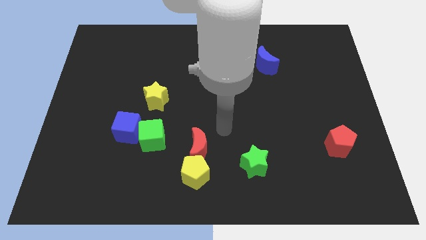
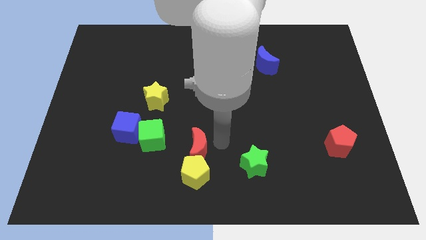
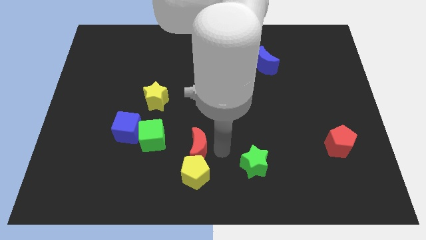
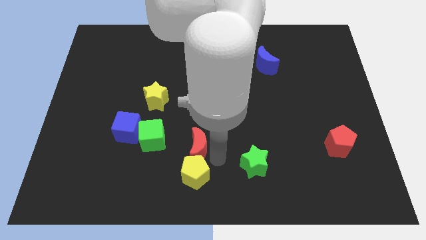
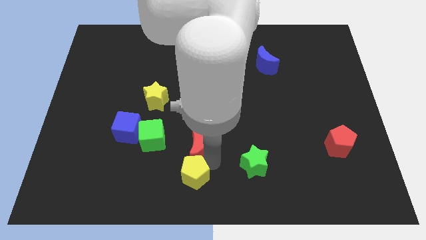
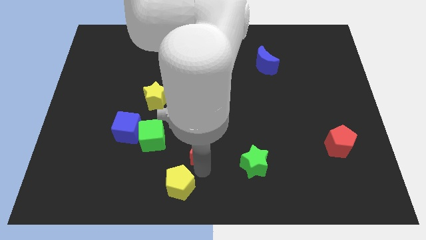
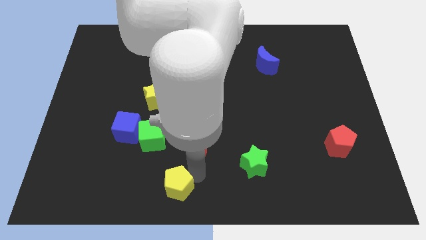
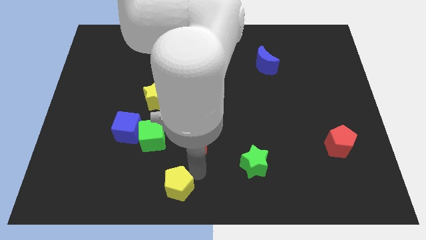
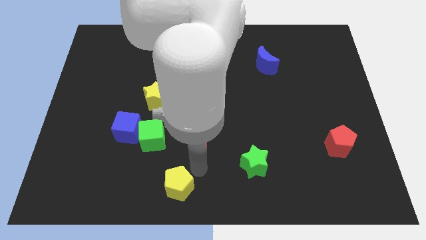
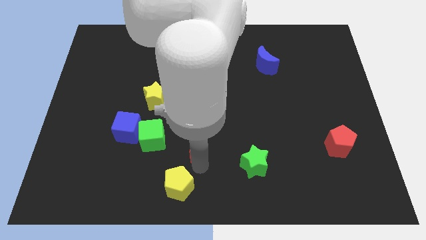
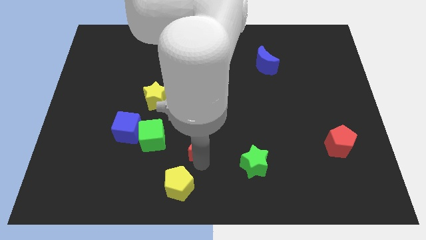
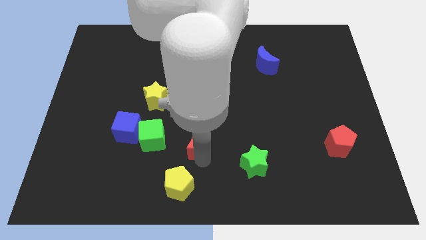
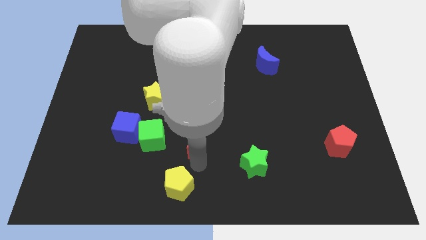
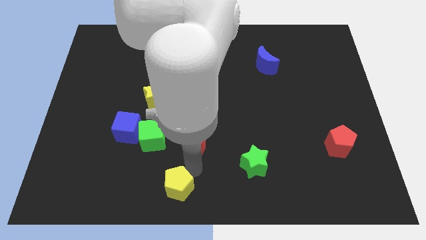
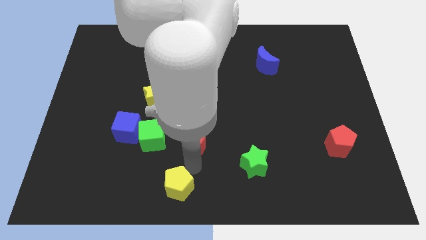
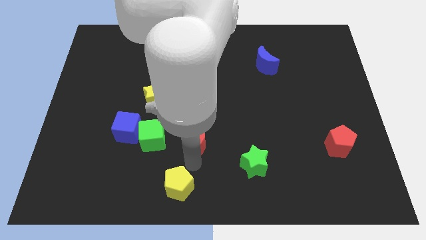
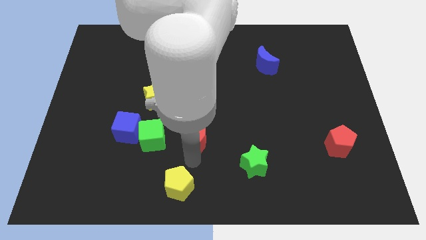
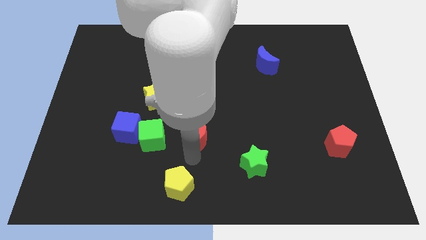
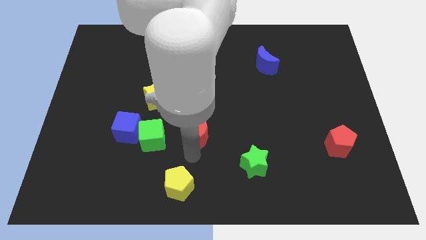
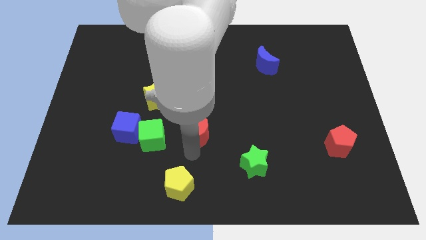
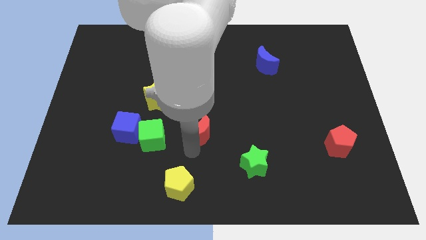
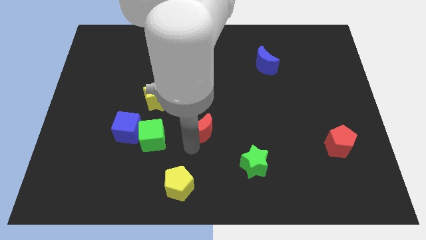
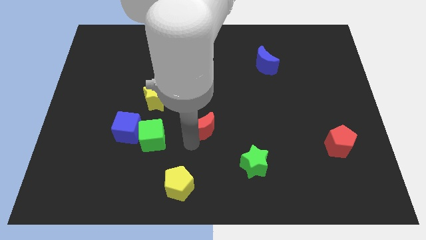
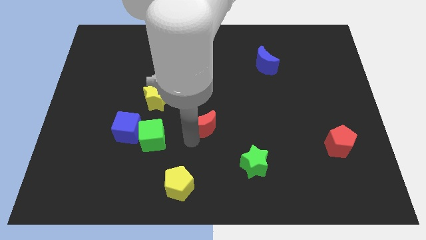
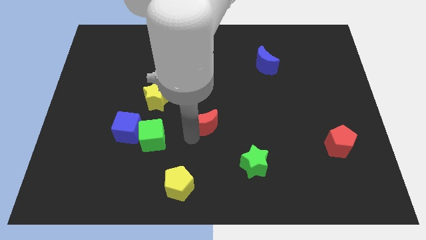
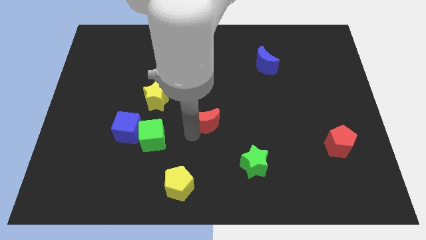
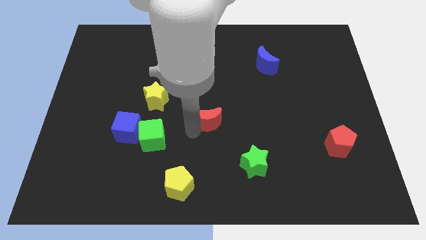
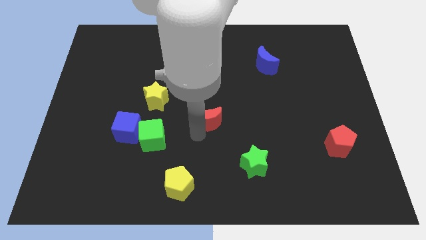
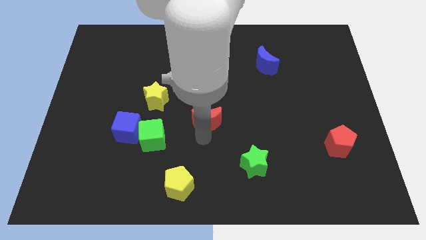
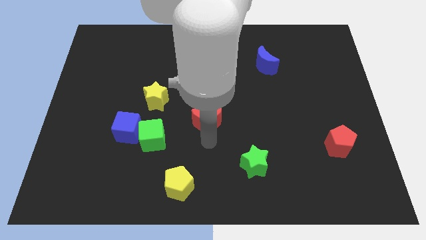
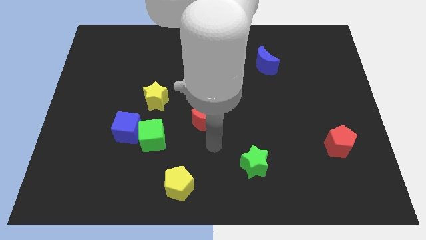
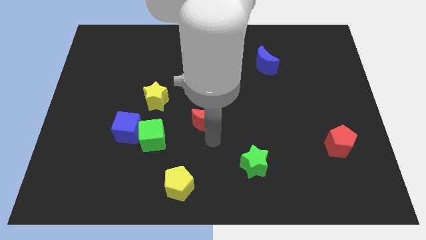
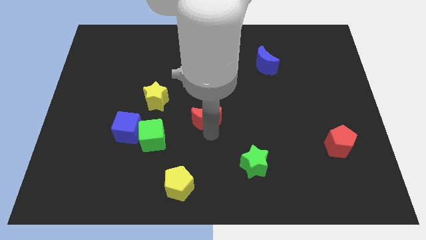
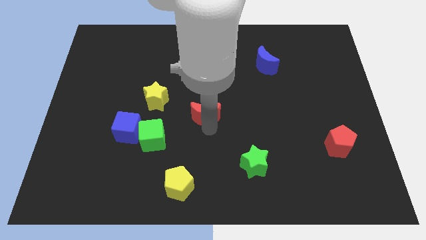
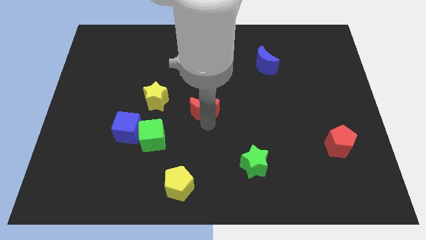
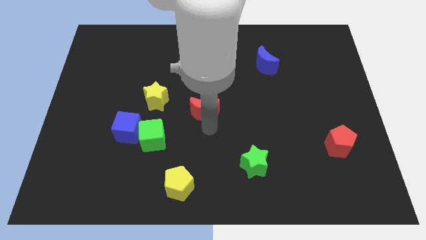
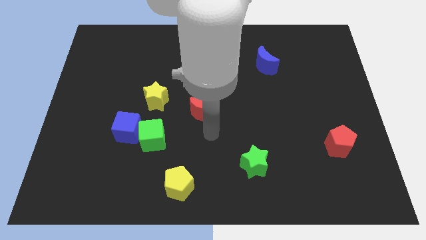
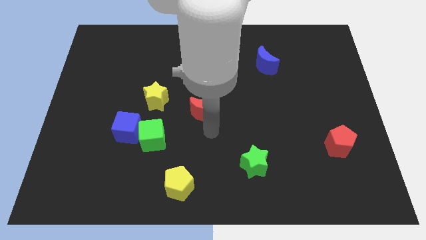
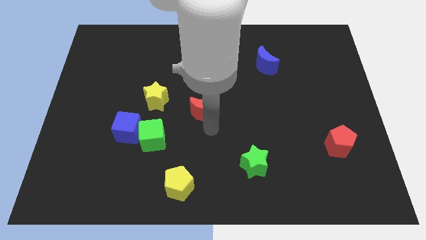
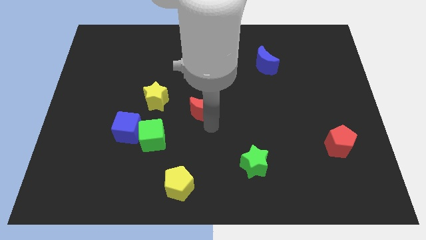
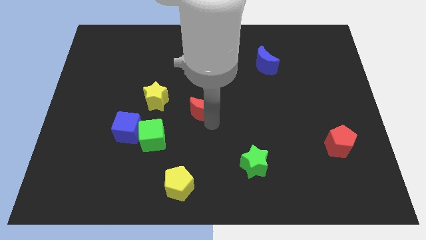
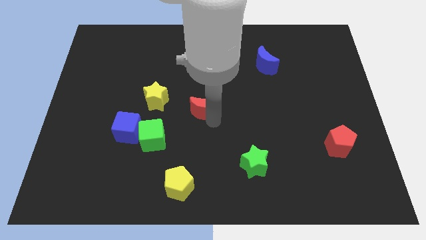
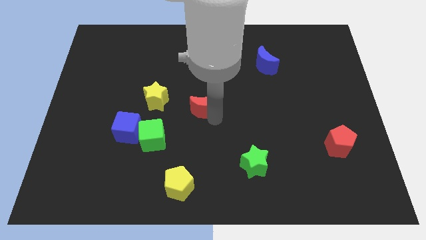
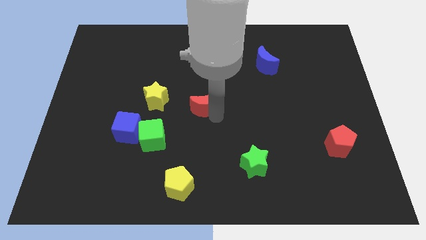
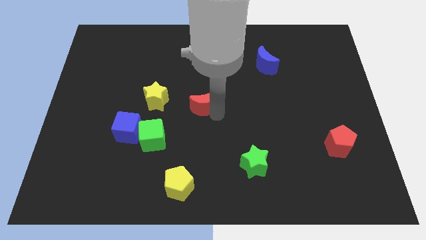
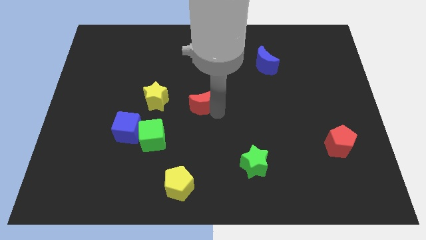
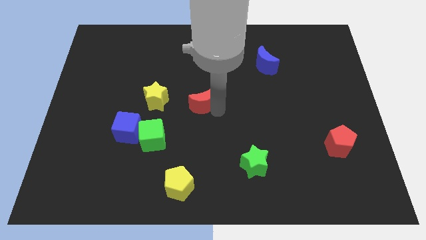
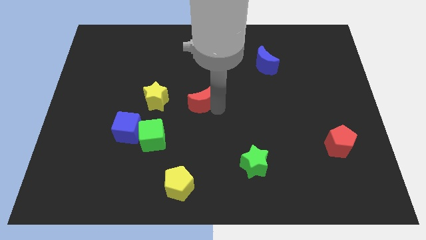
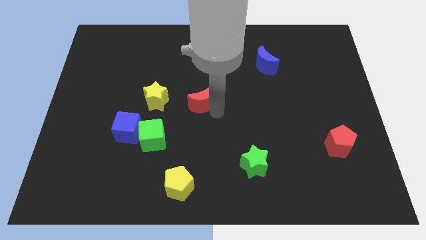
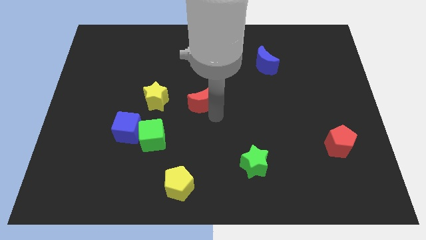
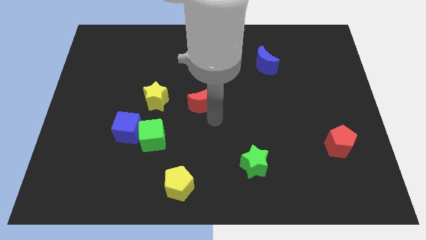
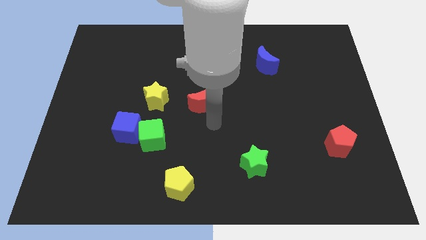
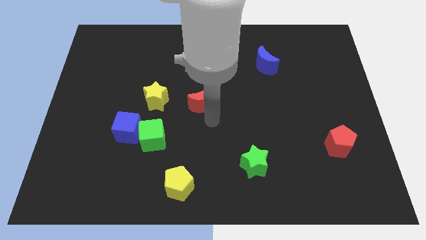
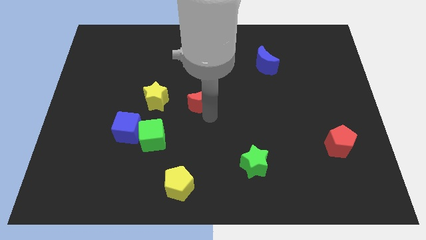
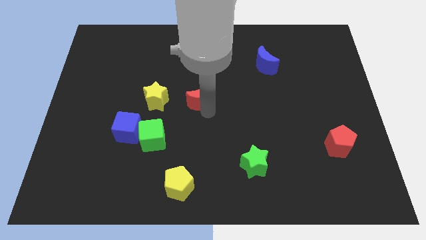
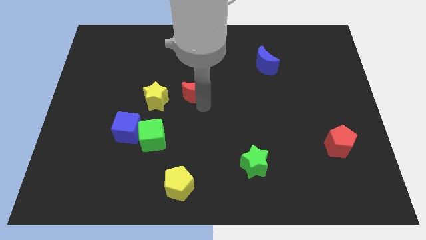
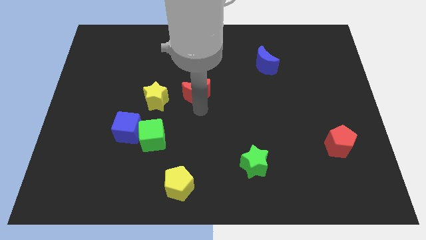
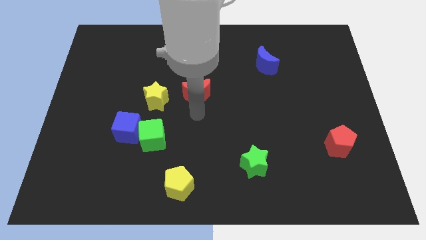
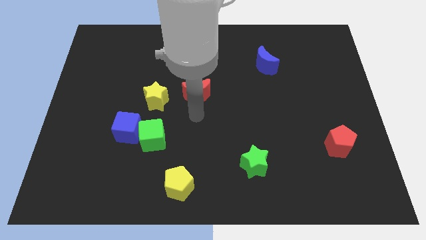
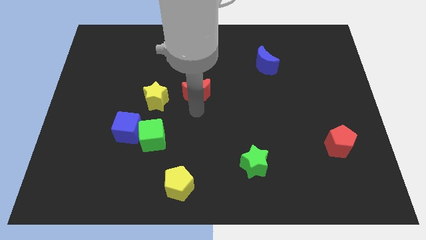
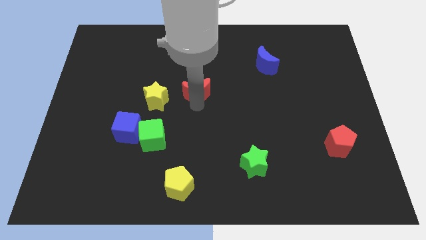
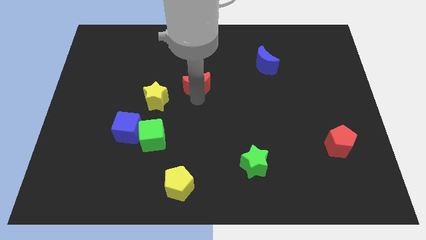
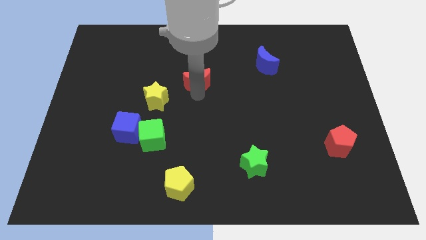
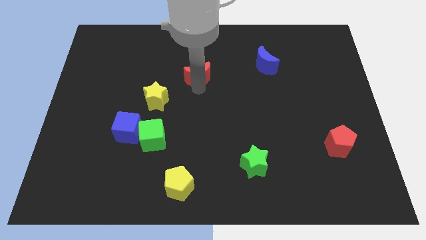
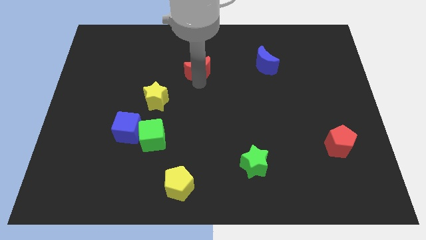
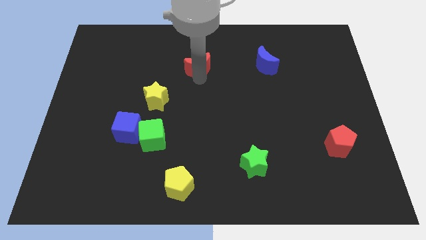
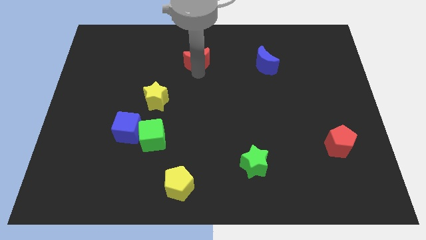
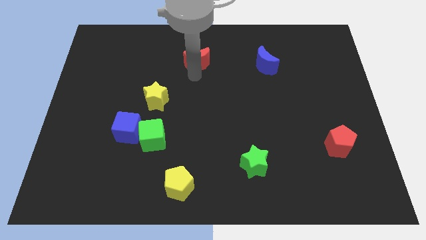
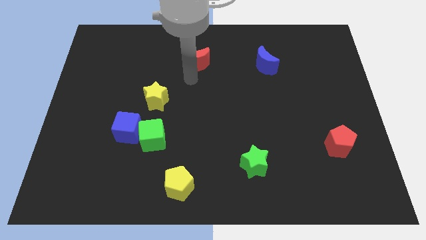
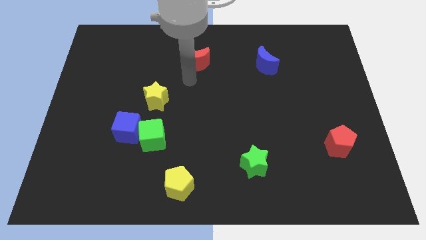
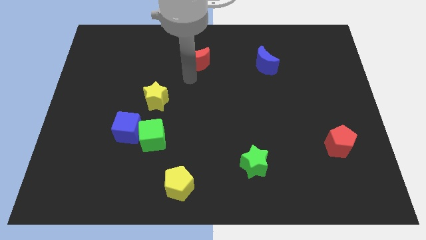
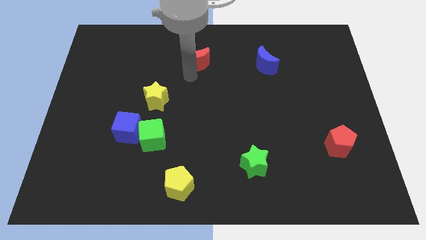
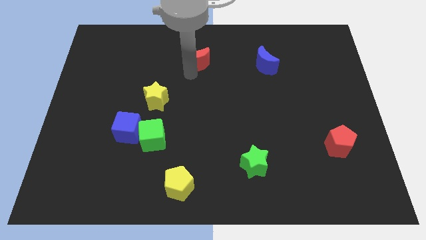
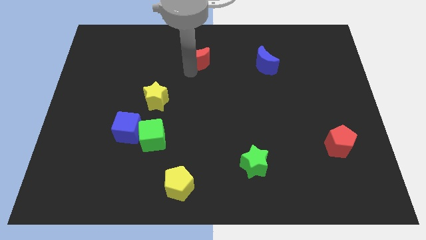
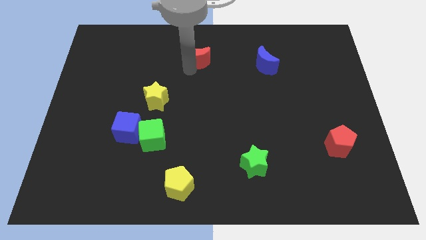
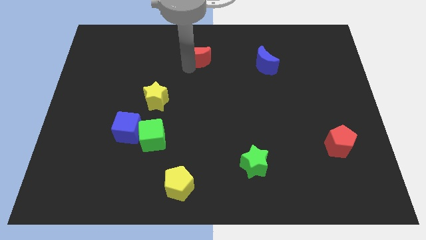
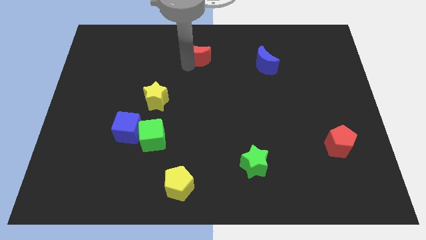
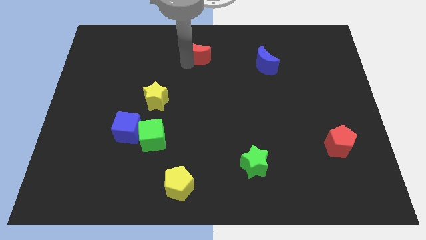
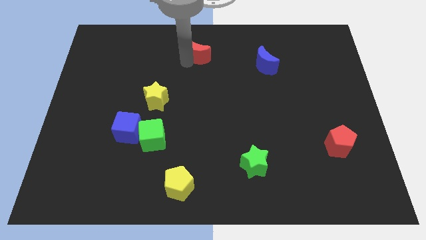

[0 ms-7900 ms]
move the red moon to the top
